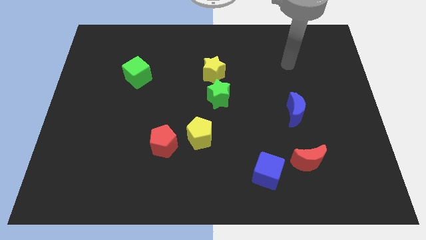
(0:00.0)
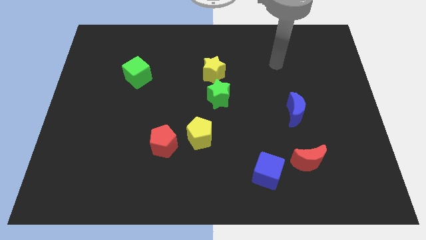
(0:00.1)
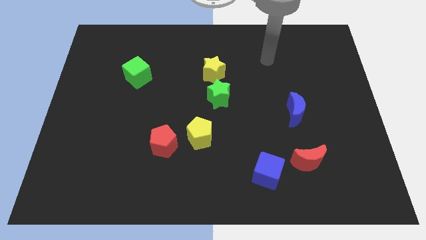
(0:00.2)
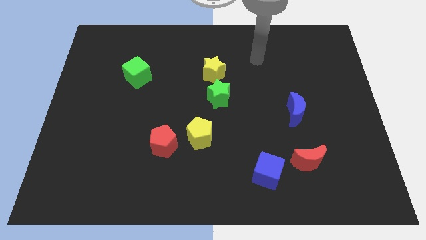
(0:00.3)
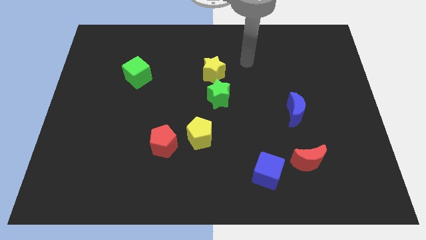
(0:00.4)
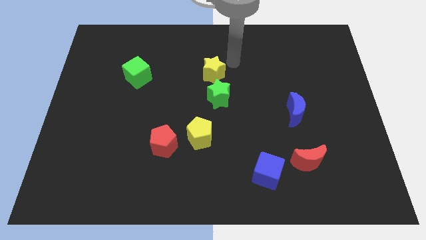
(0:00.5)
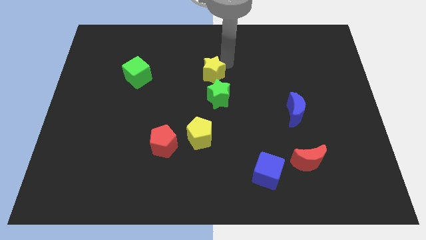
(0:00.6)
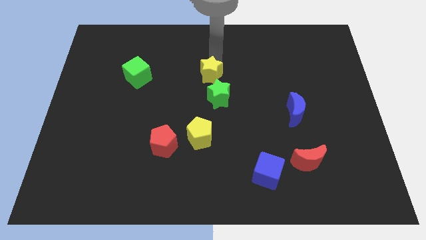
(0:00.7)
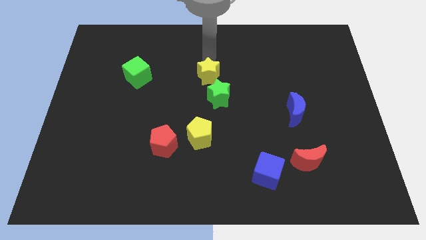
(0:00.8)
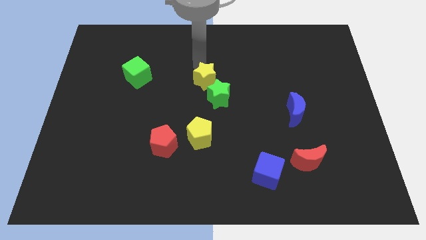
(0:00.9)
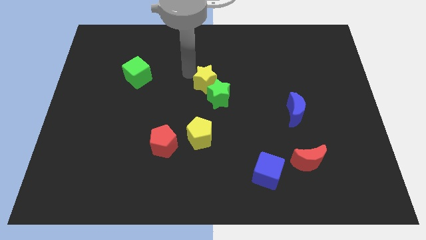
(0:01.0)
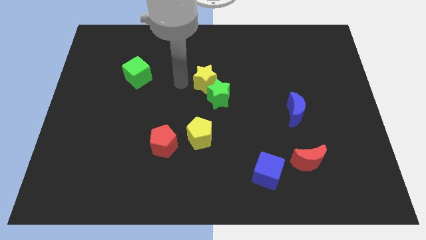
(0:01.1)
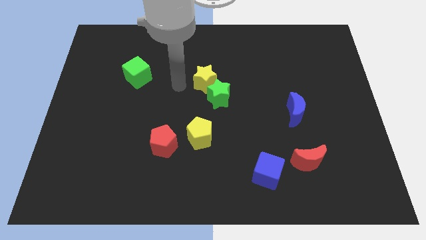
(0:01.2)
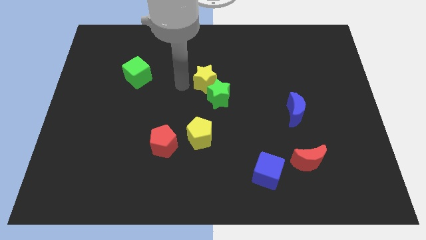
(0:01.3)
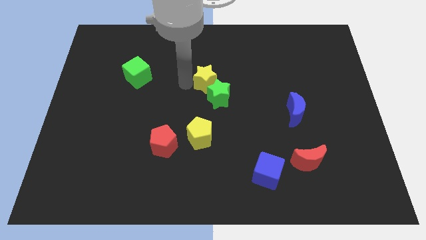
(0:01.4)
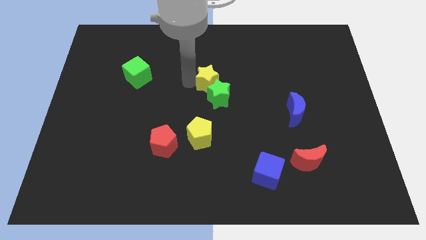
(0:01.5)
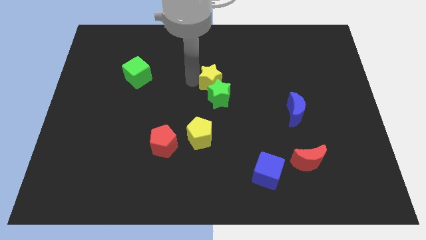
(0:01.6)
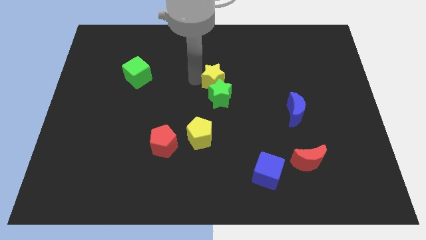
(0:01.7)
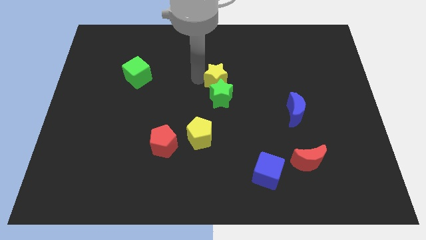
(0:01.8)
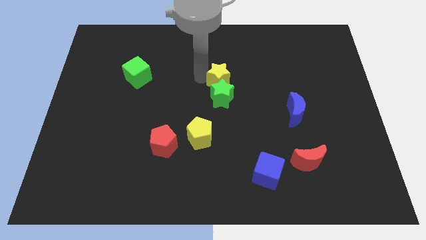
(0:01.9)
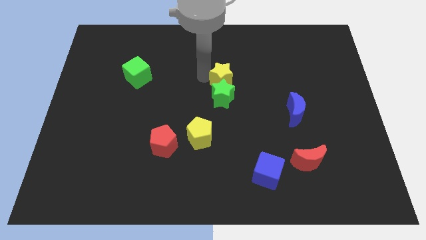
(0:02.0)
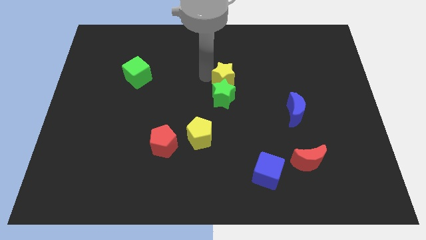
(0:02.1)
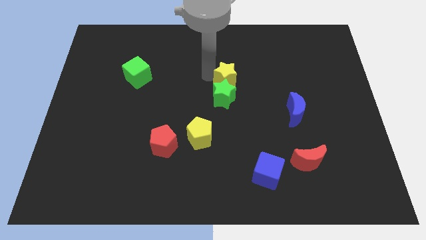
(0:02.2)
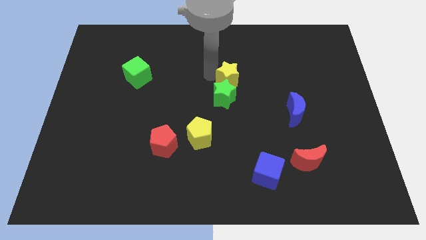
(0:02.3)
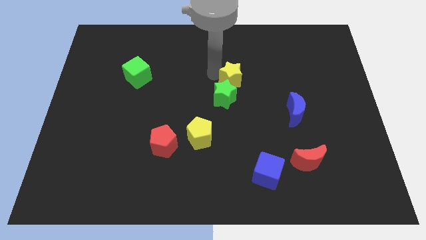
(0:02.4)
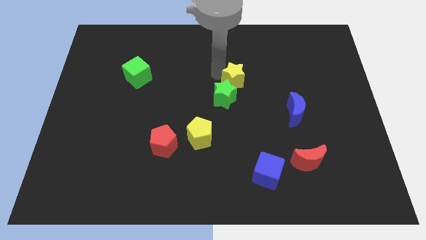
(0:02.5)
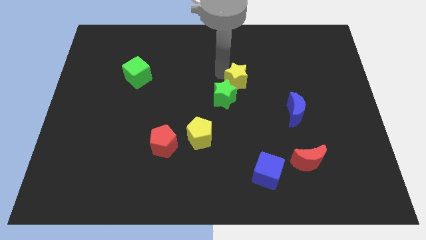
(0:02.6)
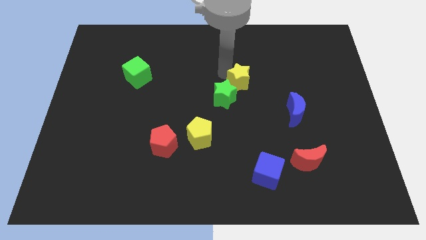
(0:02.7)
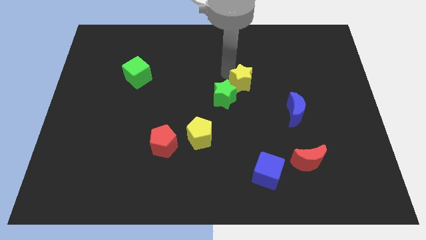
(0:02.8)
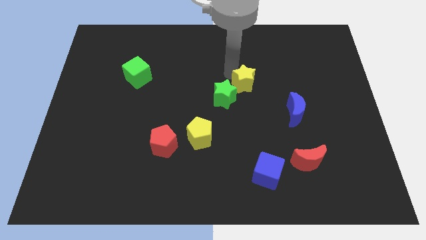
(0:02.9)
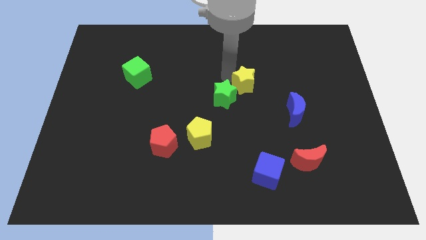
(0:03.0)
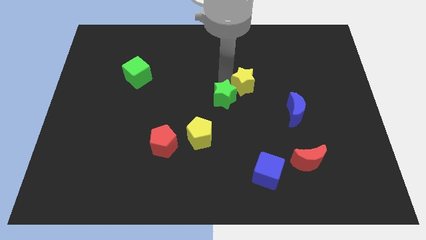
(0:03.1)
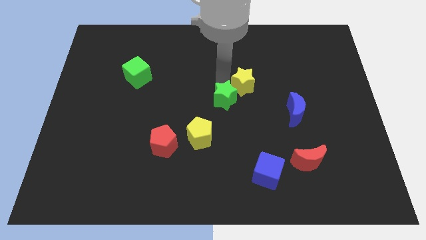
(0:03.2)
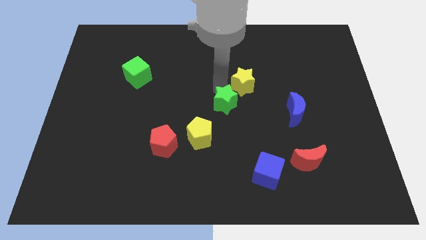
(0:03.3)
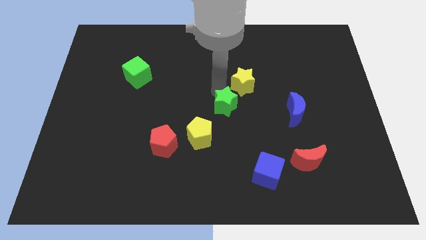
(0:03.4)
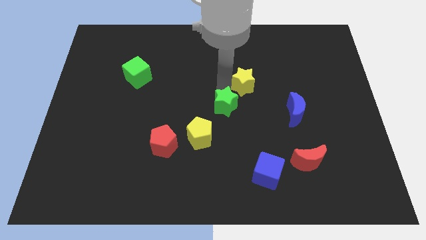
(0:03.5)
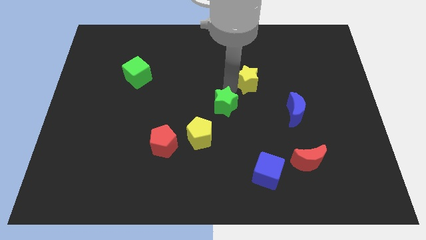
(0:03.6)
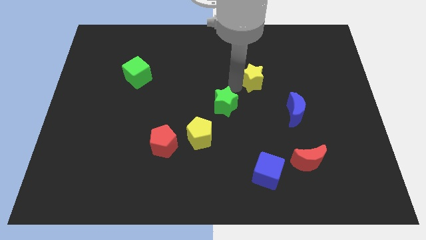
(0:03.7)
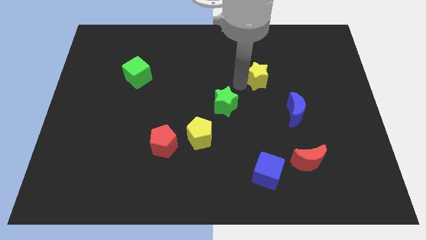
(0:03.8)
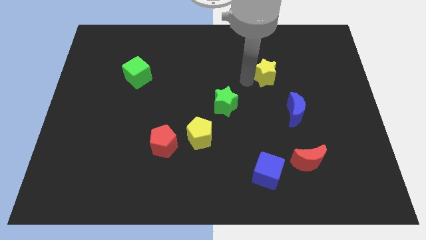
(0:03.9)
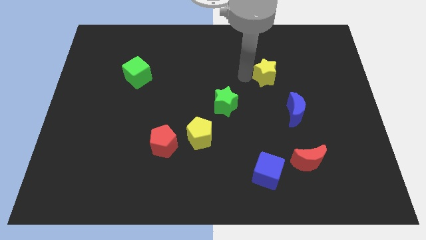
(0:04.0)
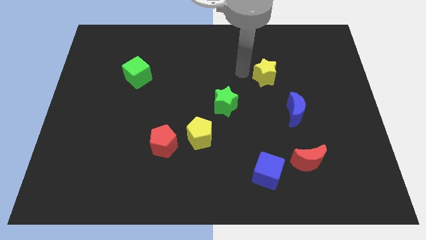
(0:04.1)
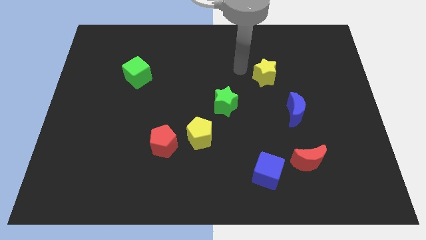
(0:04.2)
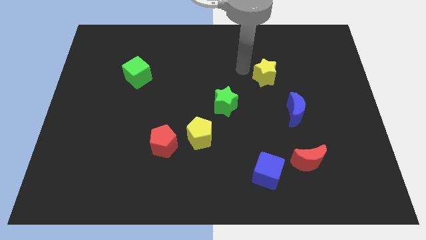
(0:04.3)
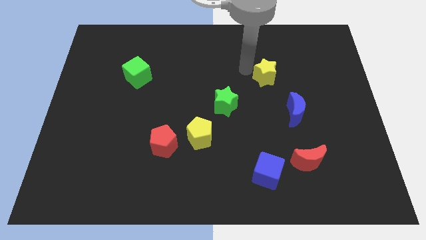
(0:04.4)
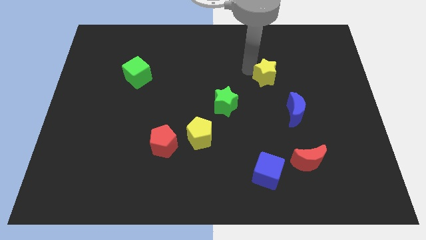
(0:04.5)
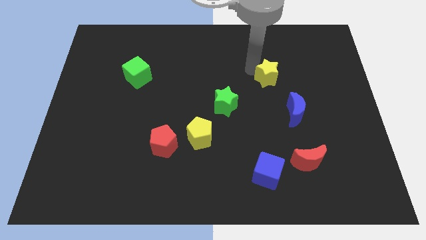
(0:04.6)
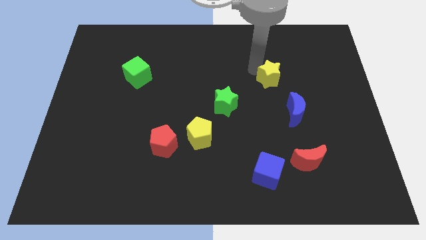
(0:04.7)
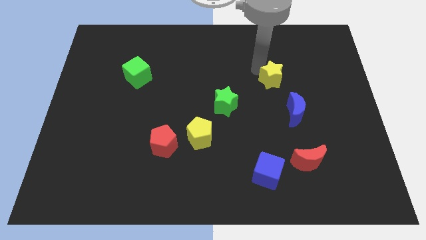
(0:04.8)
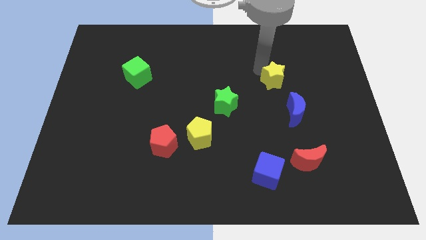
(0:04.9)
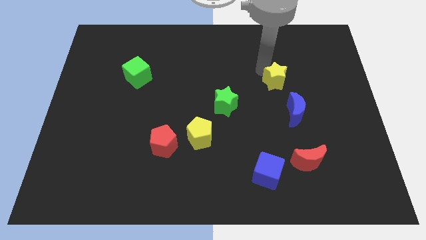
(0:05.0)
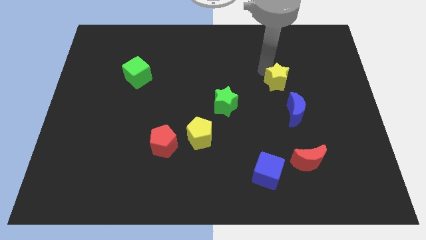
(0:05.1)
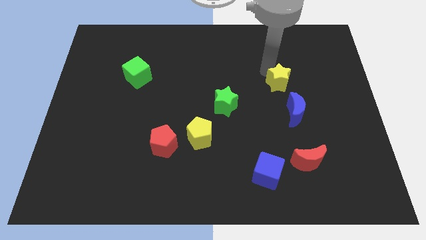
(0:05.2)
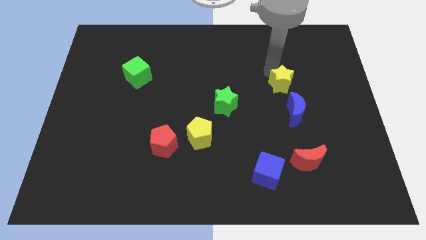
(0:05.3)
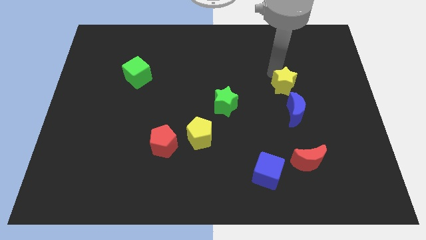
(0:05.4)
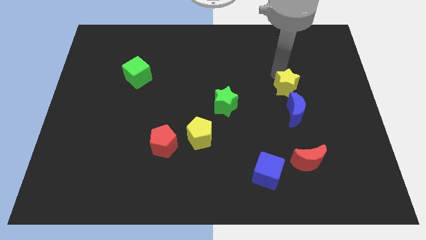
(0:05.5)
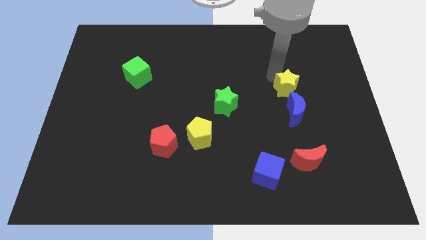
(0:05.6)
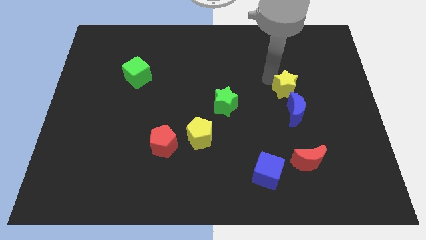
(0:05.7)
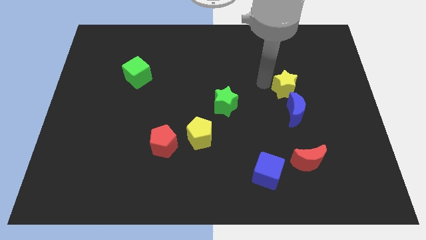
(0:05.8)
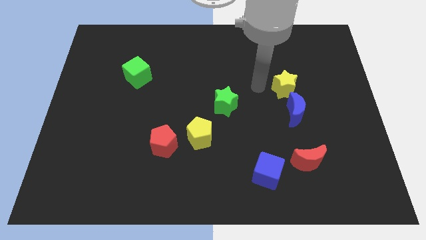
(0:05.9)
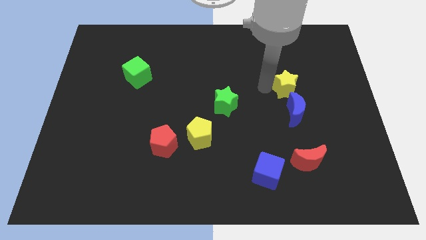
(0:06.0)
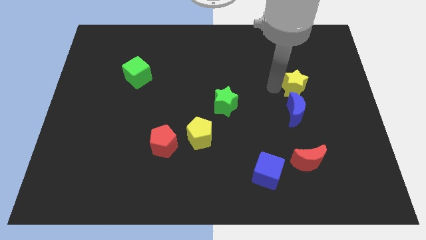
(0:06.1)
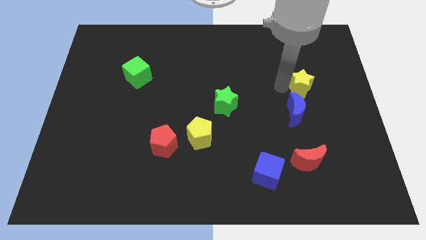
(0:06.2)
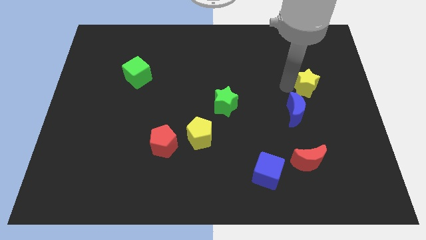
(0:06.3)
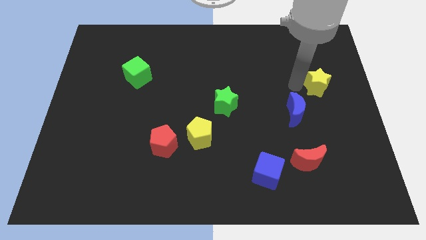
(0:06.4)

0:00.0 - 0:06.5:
slide the yellow star to the right side of the board
